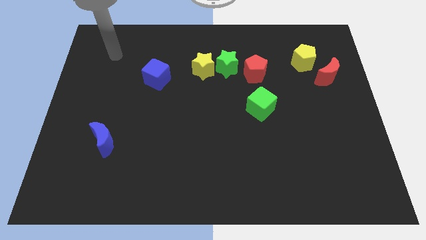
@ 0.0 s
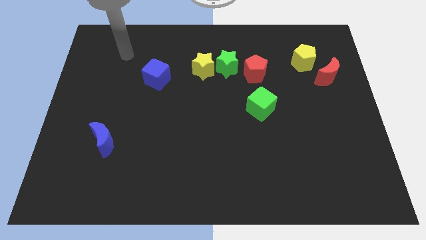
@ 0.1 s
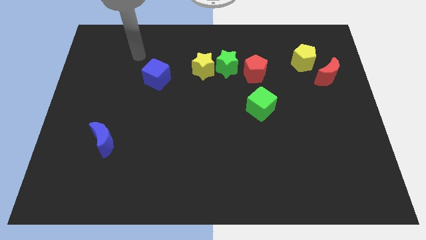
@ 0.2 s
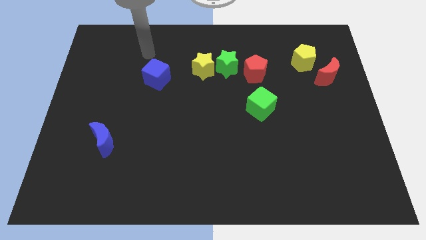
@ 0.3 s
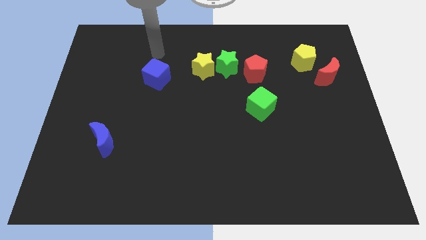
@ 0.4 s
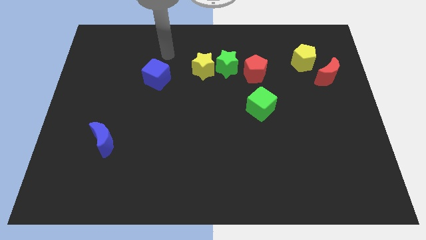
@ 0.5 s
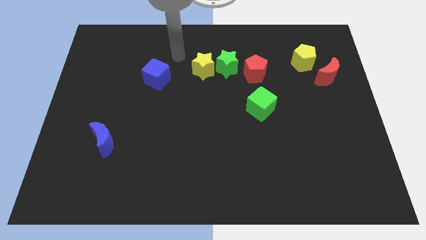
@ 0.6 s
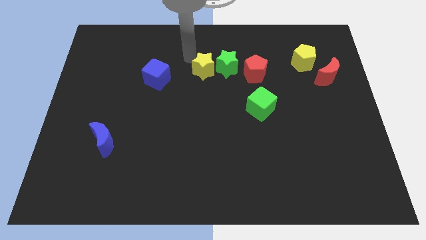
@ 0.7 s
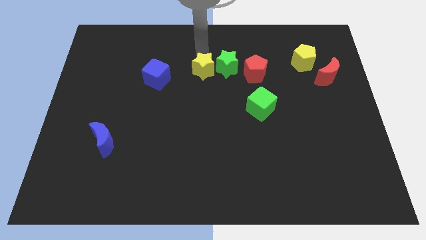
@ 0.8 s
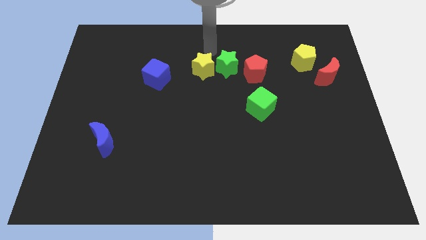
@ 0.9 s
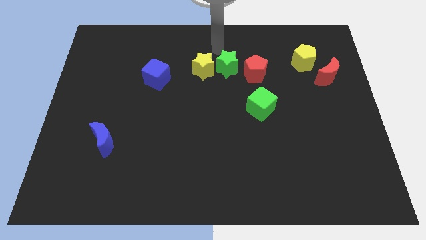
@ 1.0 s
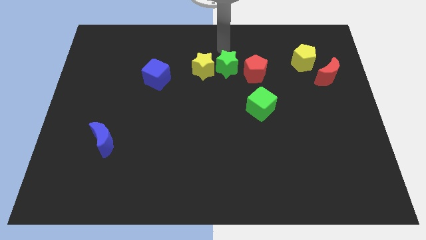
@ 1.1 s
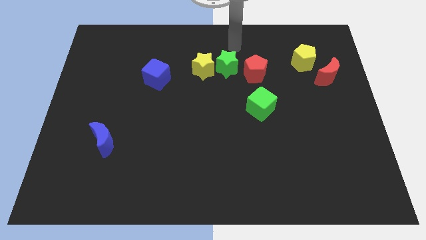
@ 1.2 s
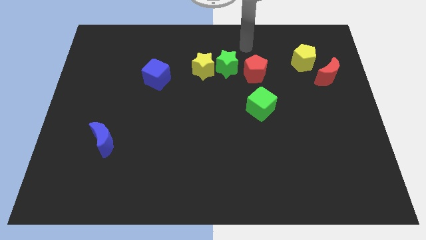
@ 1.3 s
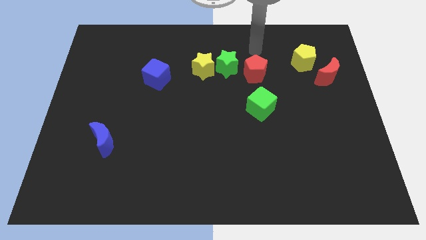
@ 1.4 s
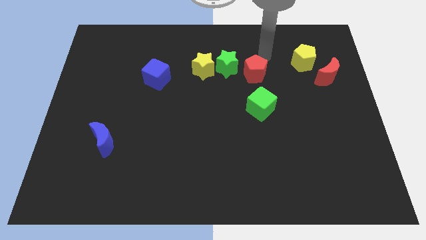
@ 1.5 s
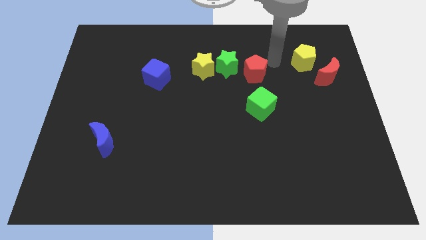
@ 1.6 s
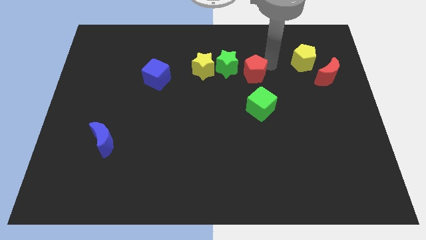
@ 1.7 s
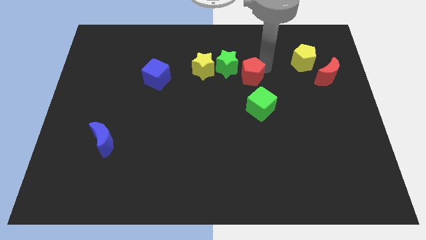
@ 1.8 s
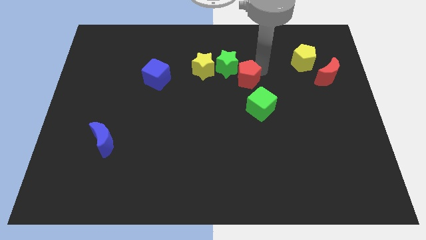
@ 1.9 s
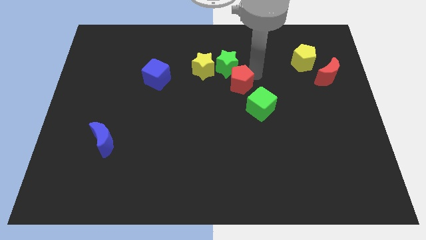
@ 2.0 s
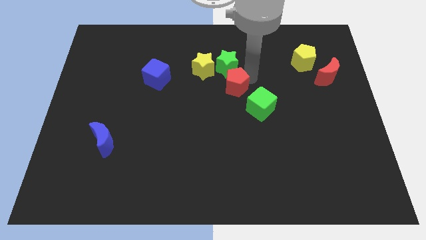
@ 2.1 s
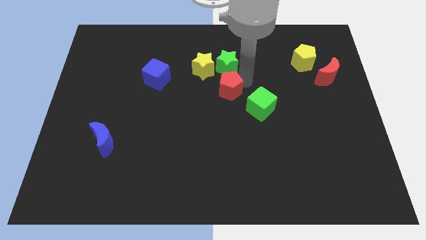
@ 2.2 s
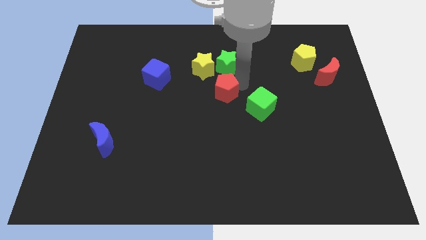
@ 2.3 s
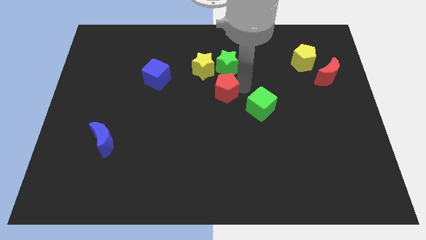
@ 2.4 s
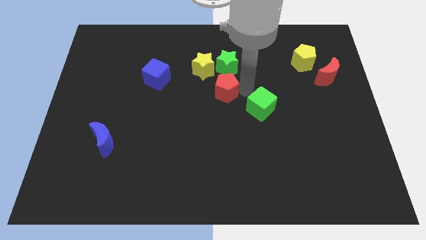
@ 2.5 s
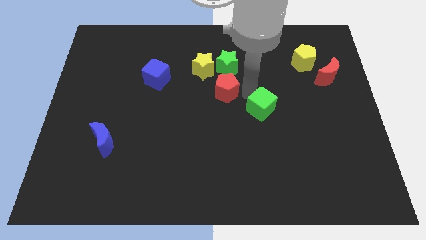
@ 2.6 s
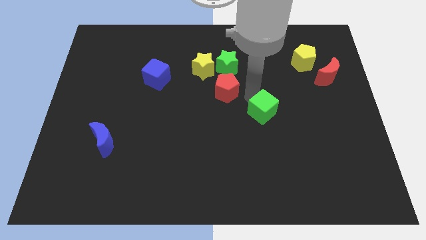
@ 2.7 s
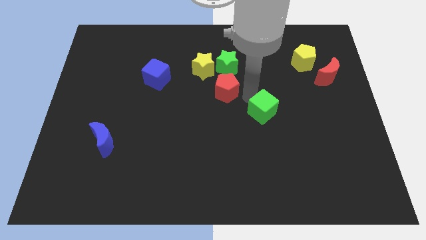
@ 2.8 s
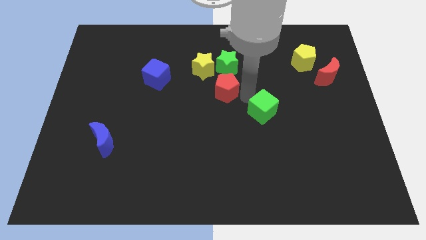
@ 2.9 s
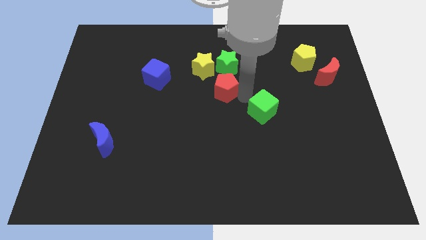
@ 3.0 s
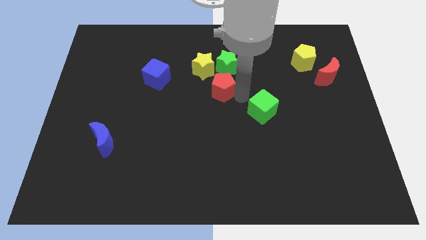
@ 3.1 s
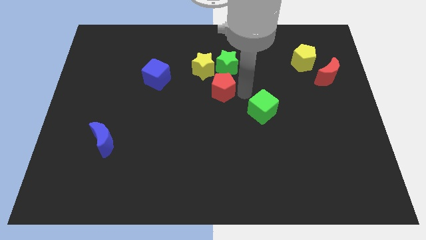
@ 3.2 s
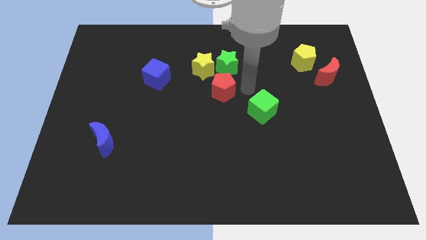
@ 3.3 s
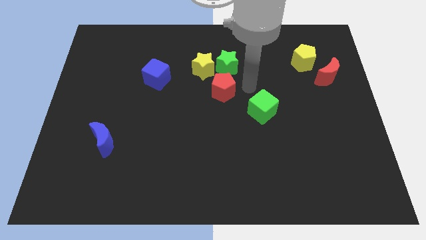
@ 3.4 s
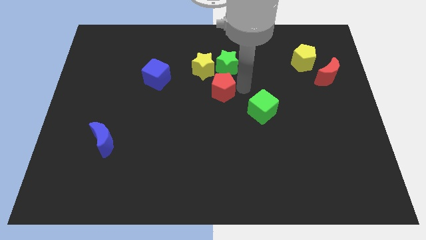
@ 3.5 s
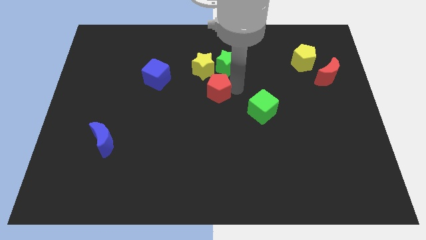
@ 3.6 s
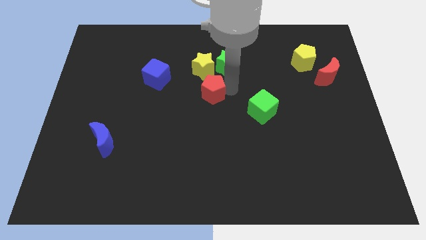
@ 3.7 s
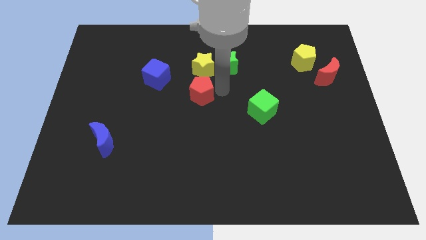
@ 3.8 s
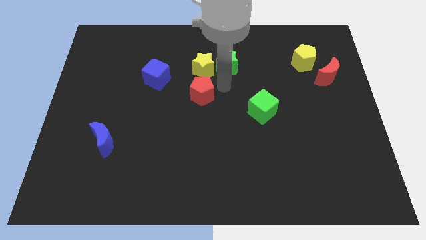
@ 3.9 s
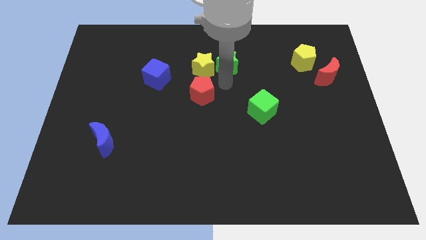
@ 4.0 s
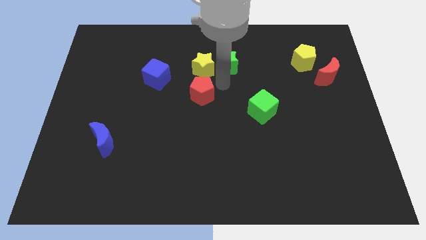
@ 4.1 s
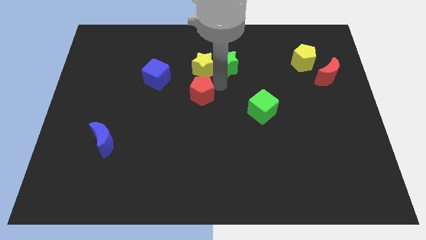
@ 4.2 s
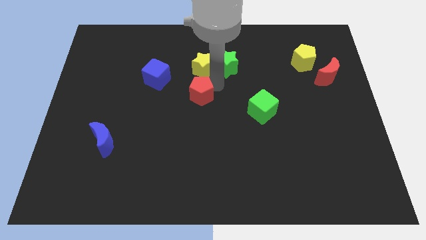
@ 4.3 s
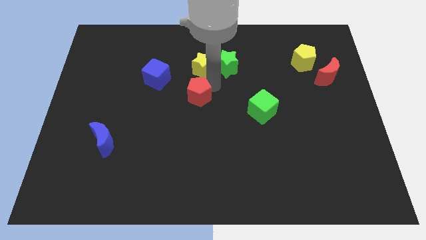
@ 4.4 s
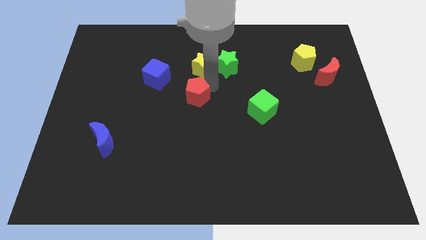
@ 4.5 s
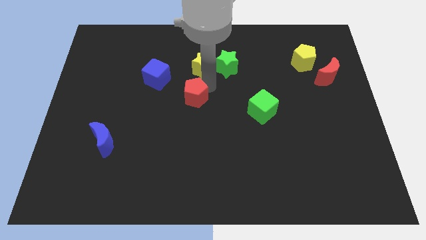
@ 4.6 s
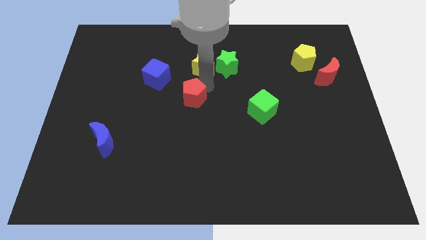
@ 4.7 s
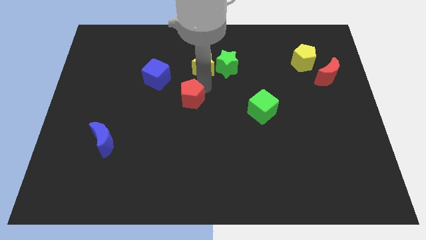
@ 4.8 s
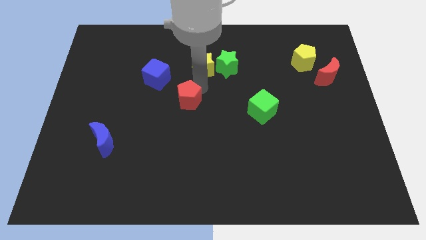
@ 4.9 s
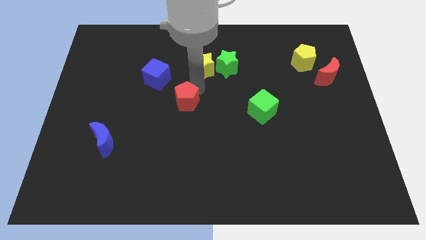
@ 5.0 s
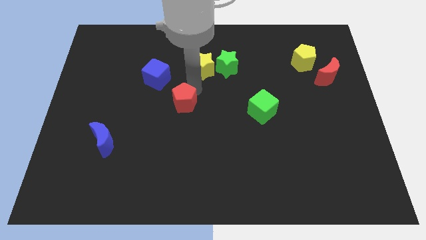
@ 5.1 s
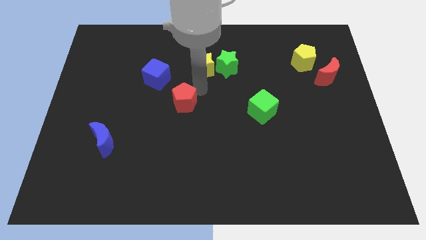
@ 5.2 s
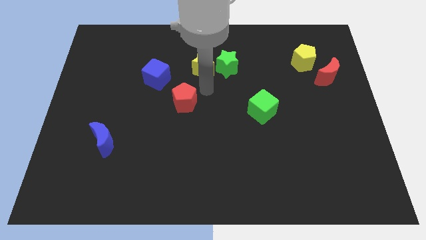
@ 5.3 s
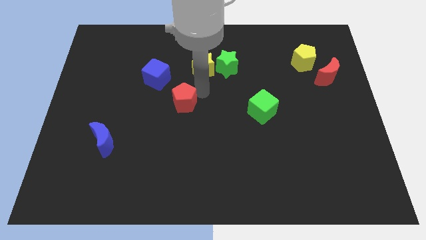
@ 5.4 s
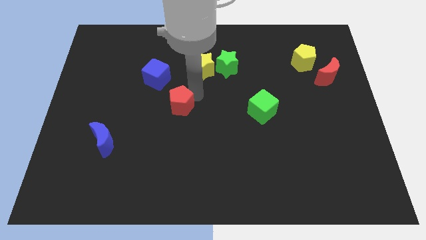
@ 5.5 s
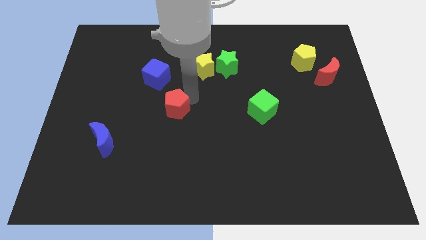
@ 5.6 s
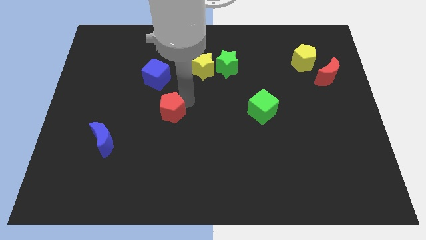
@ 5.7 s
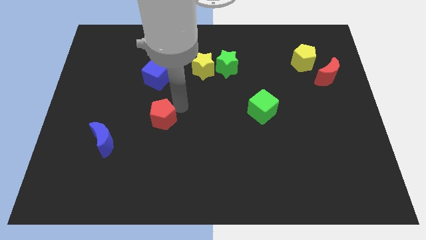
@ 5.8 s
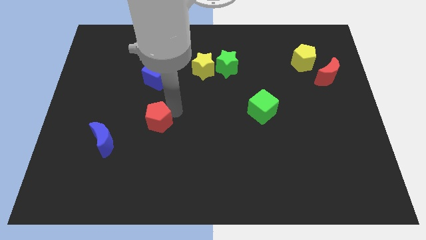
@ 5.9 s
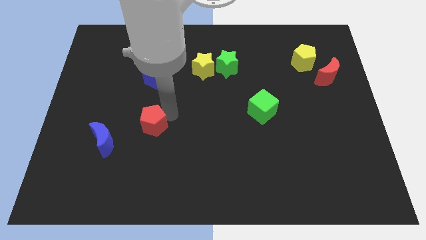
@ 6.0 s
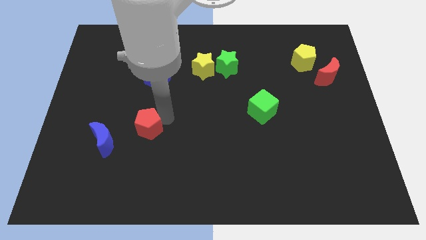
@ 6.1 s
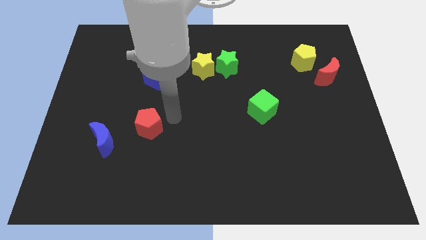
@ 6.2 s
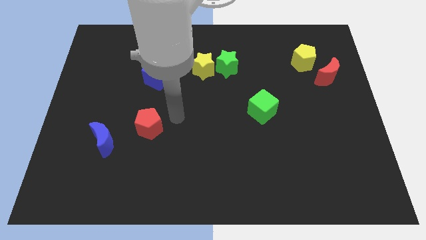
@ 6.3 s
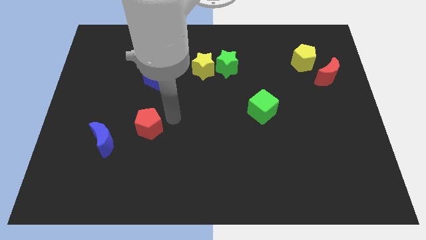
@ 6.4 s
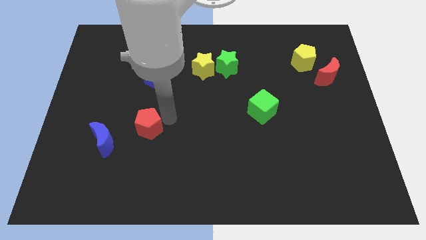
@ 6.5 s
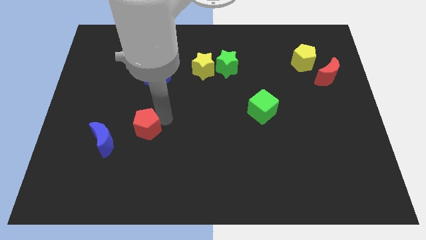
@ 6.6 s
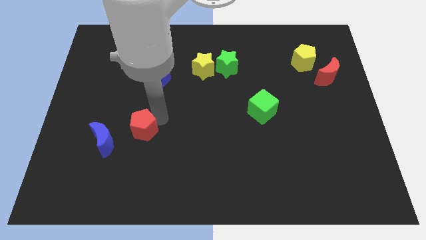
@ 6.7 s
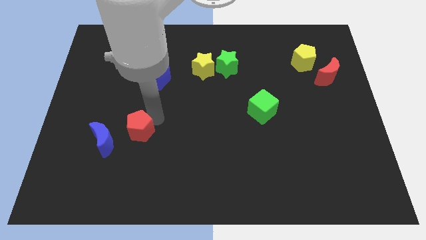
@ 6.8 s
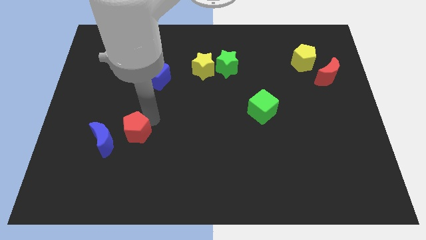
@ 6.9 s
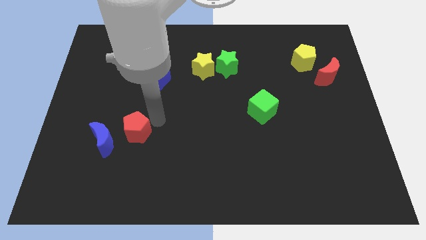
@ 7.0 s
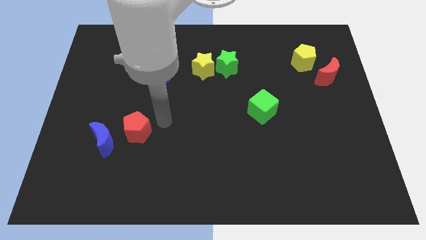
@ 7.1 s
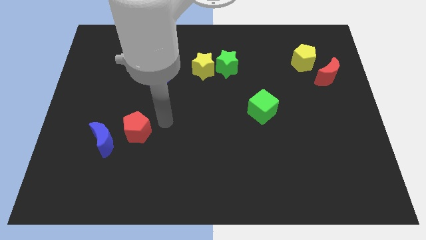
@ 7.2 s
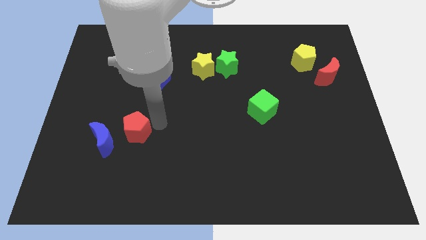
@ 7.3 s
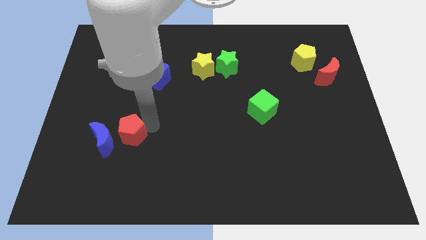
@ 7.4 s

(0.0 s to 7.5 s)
move the red pentagon towards the blue moon

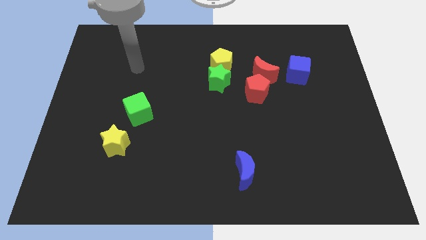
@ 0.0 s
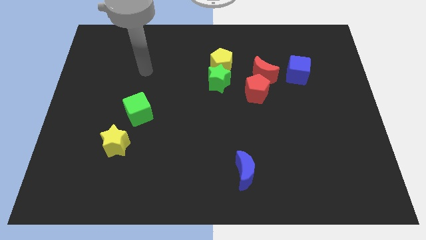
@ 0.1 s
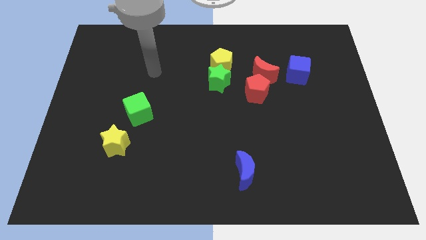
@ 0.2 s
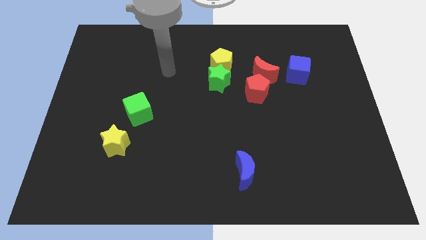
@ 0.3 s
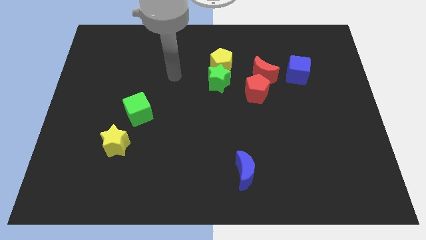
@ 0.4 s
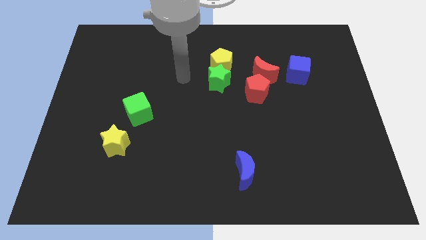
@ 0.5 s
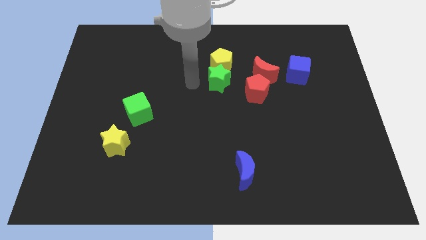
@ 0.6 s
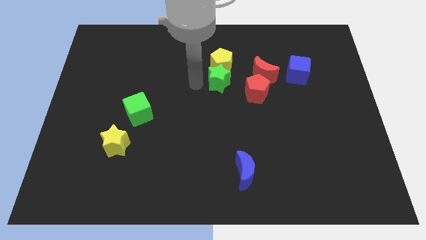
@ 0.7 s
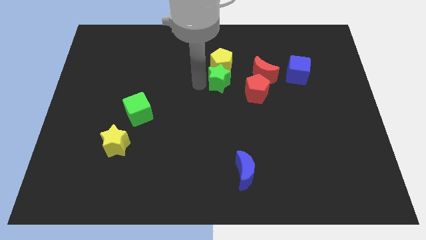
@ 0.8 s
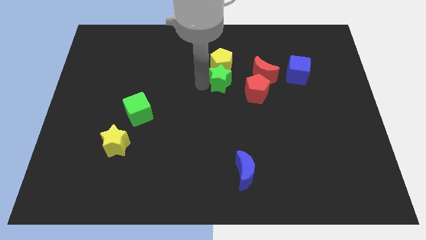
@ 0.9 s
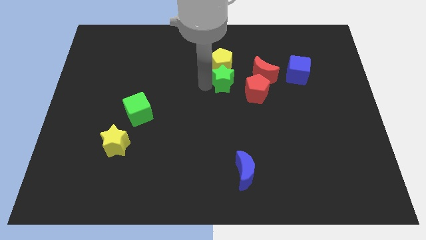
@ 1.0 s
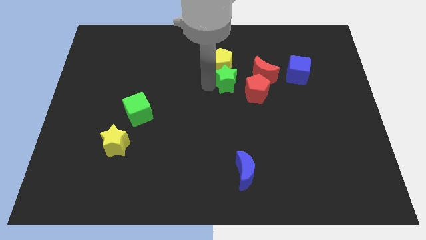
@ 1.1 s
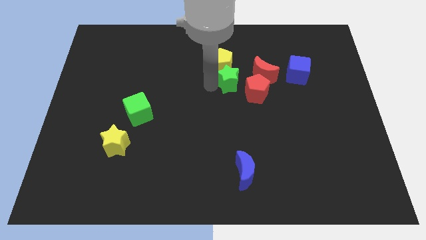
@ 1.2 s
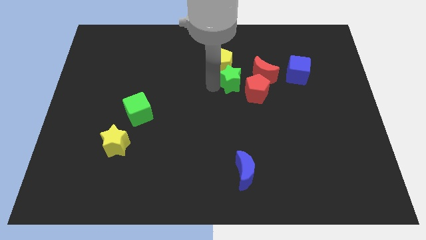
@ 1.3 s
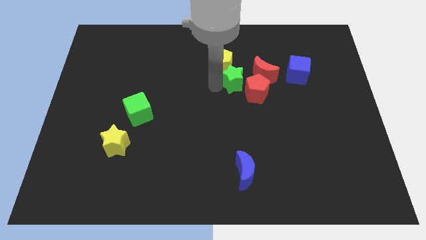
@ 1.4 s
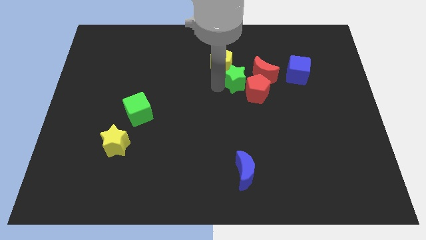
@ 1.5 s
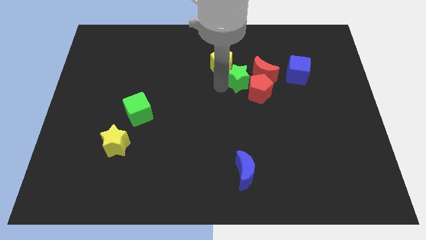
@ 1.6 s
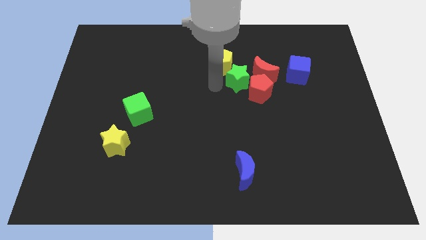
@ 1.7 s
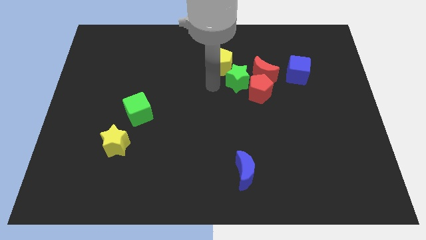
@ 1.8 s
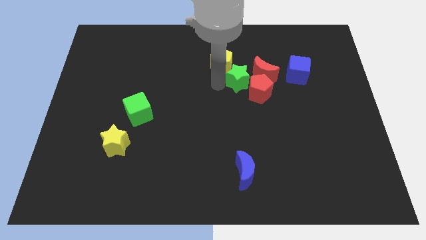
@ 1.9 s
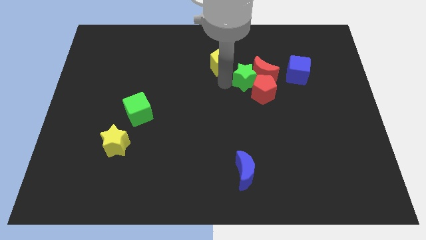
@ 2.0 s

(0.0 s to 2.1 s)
push the green star towards the red moon
